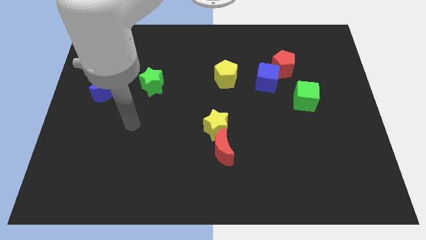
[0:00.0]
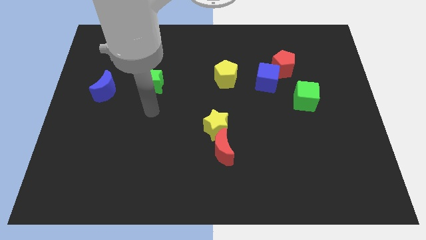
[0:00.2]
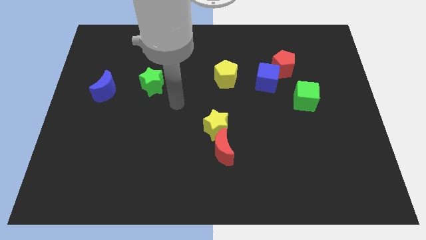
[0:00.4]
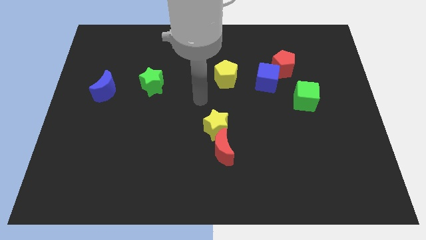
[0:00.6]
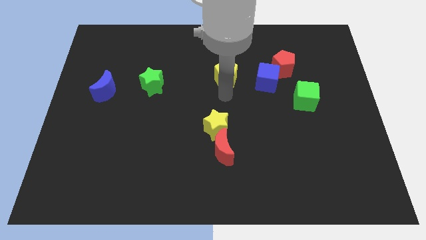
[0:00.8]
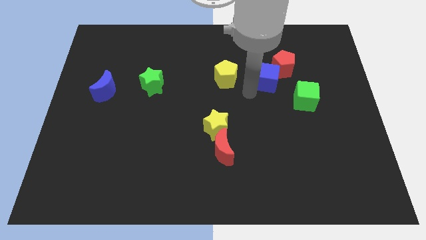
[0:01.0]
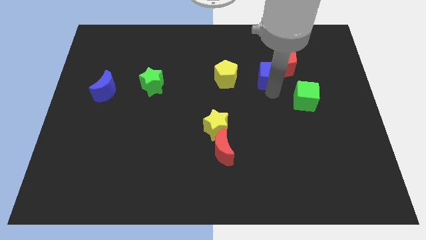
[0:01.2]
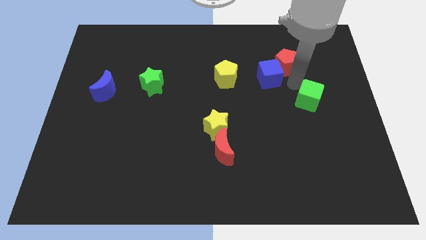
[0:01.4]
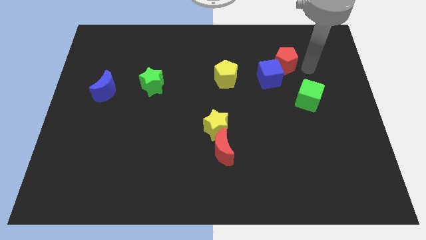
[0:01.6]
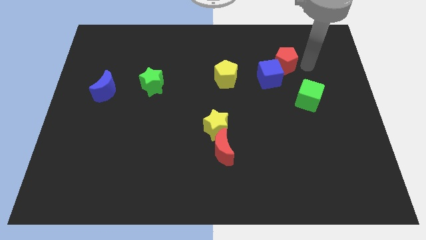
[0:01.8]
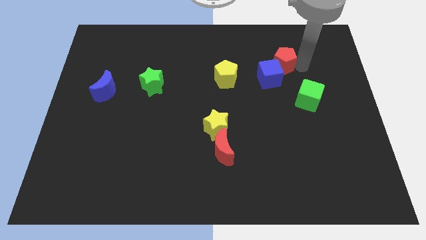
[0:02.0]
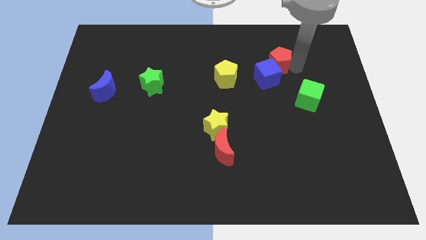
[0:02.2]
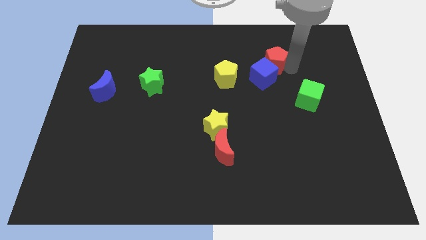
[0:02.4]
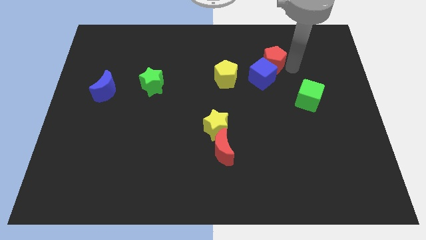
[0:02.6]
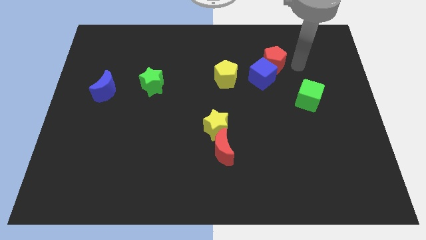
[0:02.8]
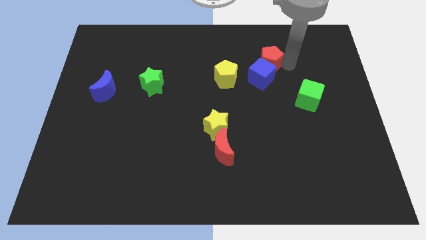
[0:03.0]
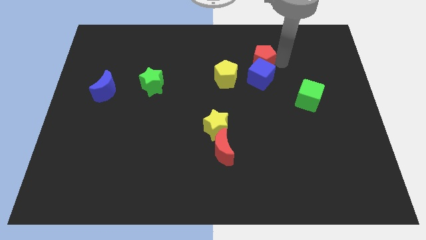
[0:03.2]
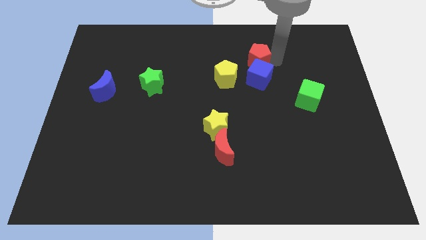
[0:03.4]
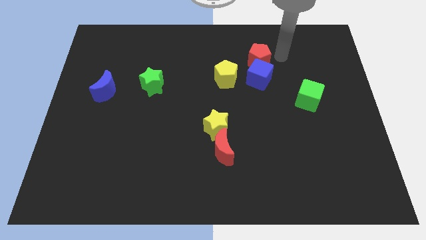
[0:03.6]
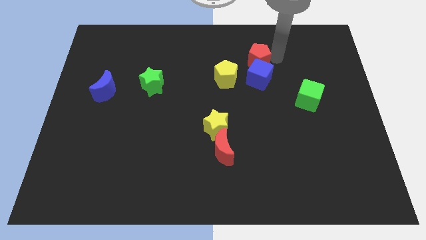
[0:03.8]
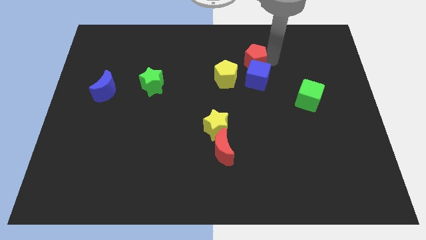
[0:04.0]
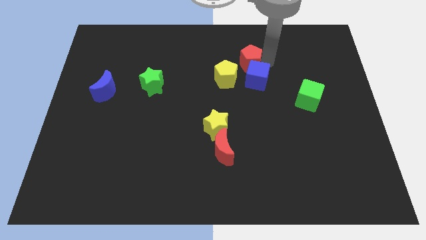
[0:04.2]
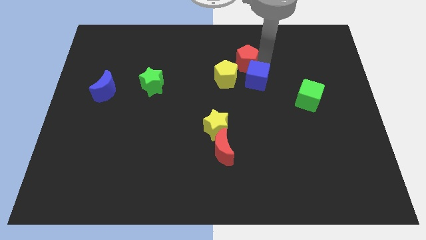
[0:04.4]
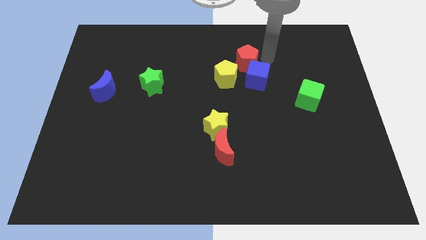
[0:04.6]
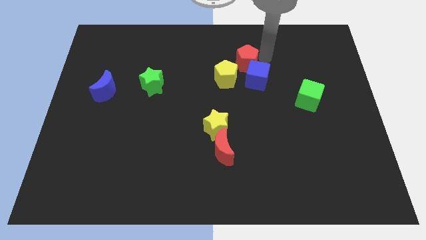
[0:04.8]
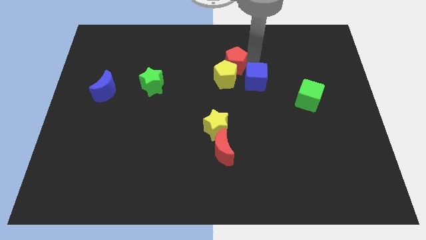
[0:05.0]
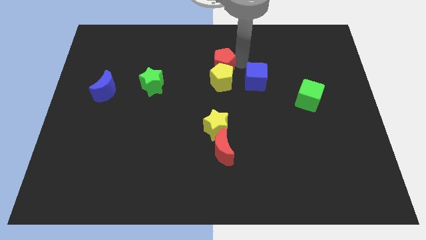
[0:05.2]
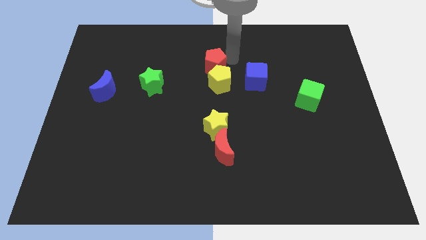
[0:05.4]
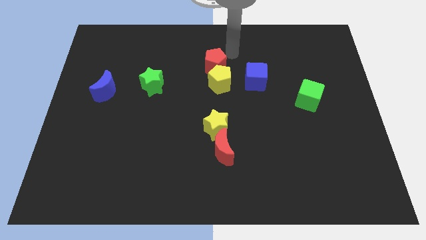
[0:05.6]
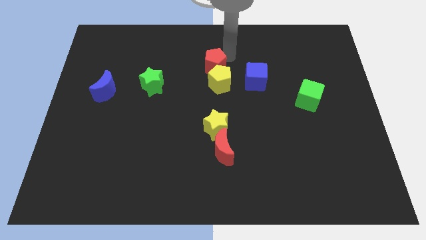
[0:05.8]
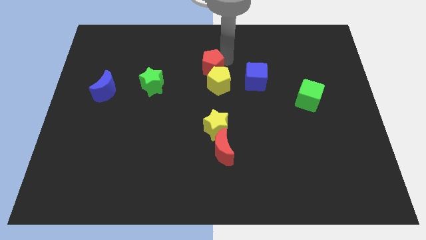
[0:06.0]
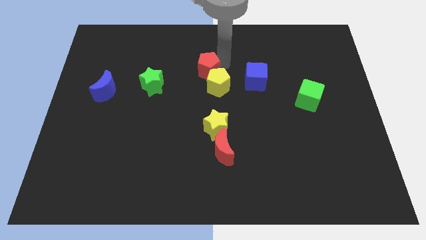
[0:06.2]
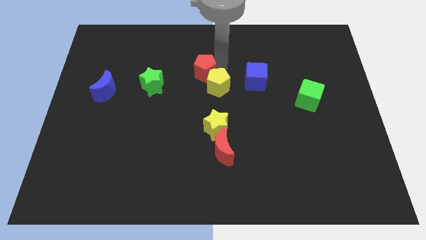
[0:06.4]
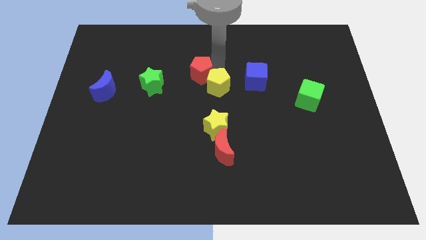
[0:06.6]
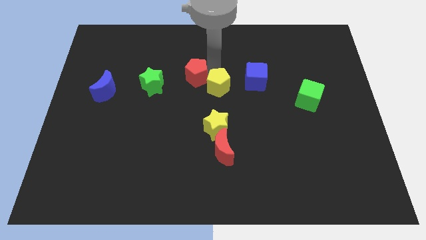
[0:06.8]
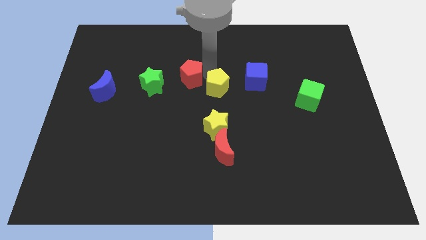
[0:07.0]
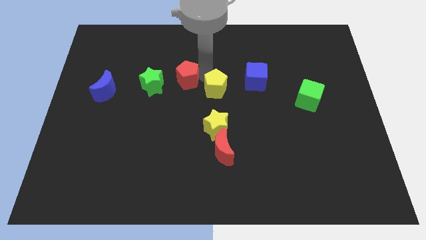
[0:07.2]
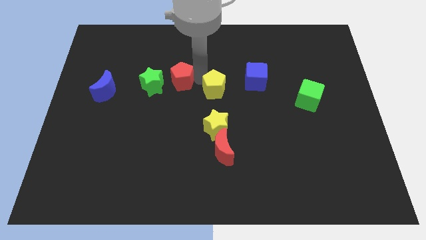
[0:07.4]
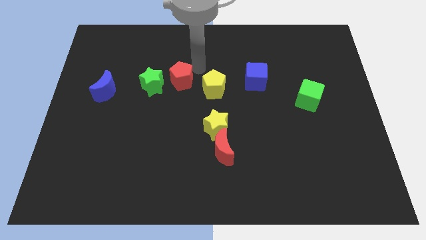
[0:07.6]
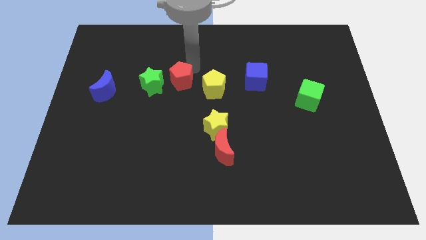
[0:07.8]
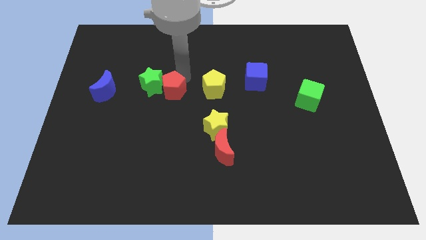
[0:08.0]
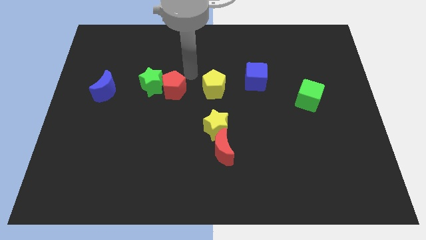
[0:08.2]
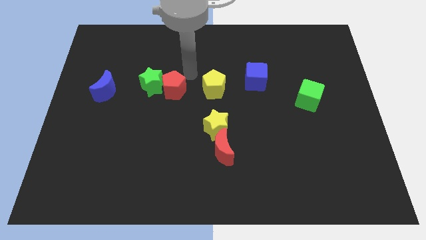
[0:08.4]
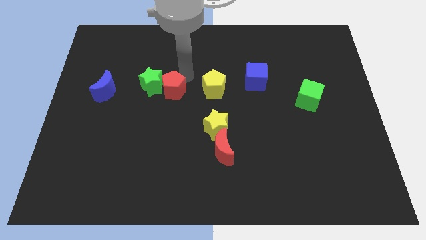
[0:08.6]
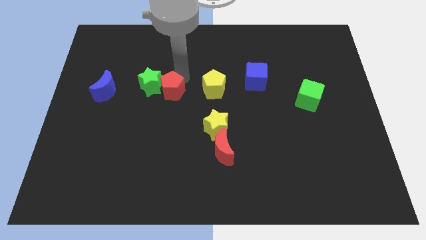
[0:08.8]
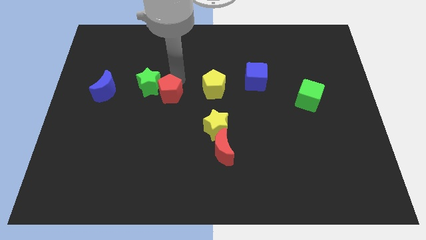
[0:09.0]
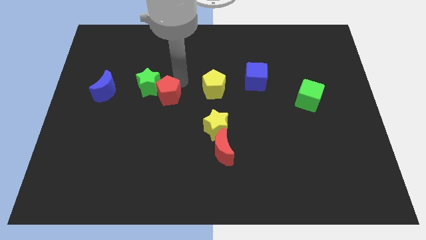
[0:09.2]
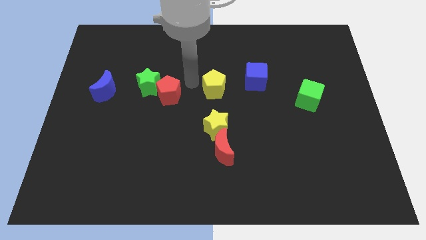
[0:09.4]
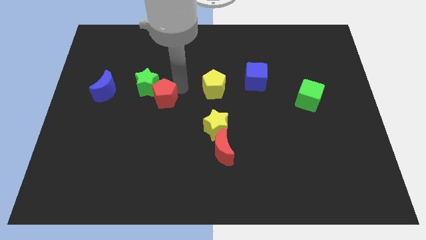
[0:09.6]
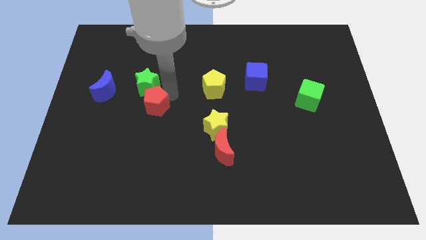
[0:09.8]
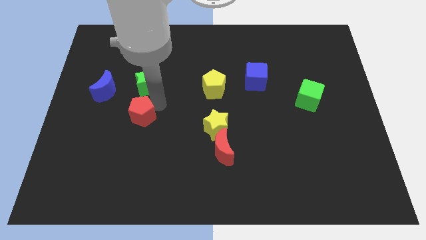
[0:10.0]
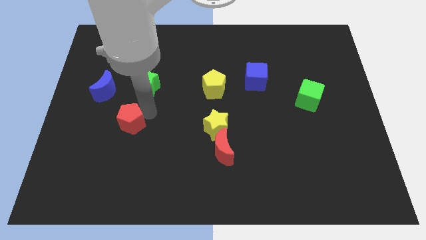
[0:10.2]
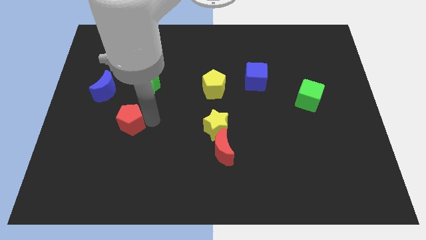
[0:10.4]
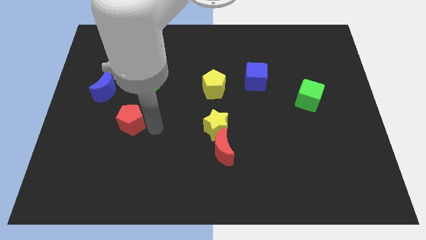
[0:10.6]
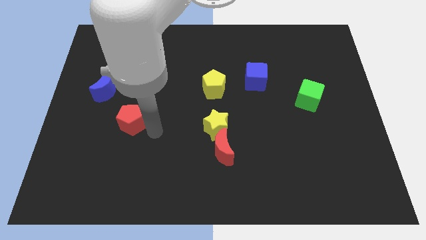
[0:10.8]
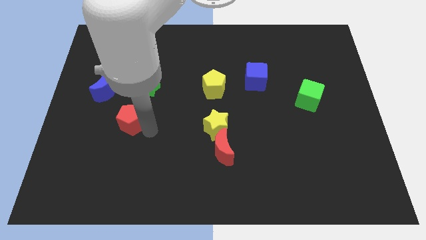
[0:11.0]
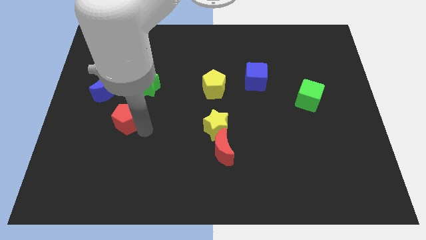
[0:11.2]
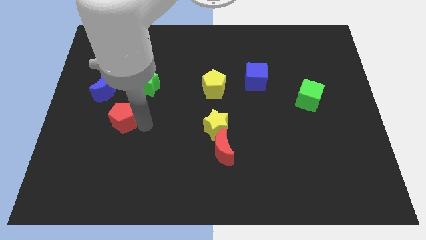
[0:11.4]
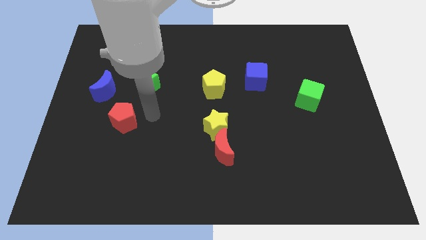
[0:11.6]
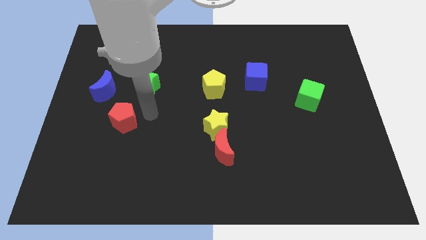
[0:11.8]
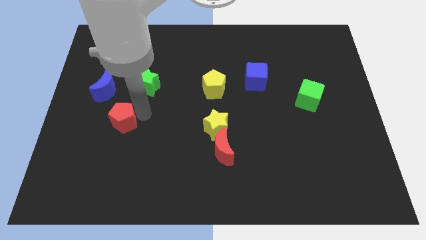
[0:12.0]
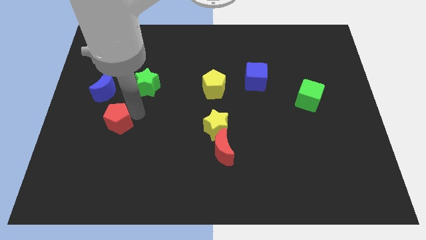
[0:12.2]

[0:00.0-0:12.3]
push the red pentagon to the bottom side of the blue moon

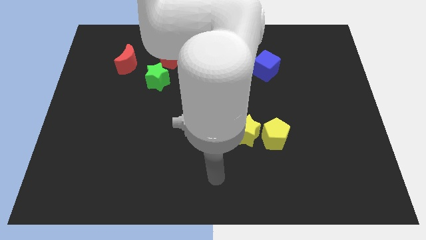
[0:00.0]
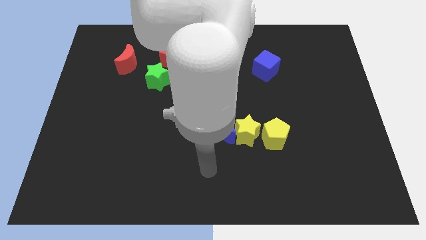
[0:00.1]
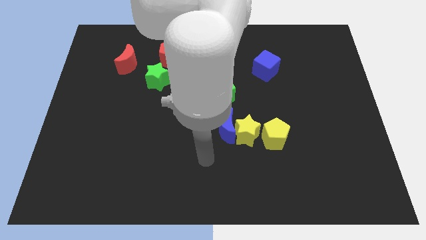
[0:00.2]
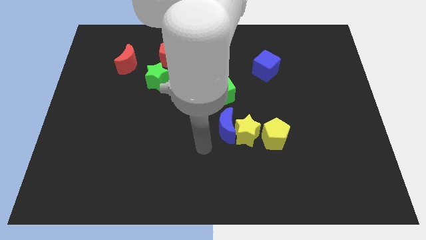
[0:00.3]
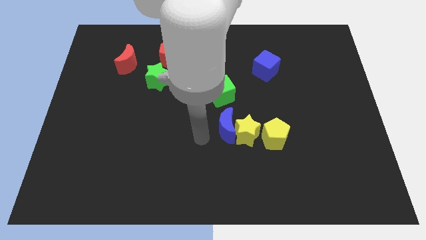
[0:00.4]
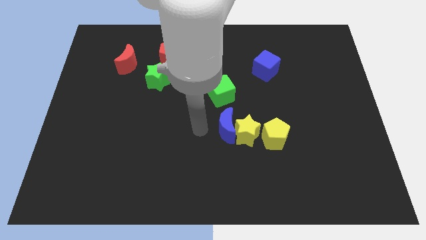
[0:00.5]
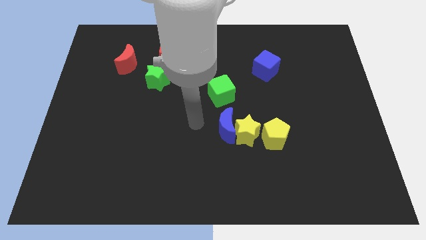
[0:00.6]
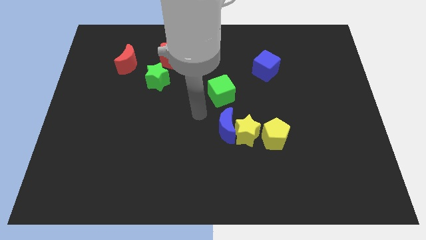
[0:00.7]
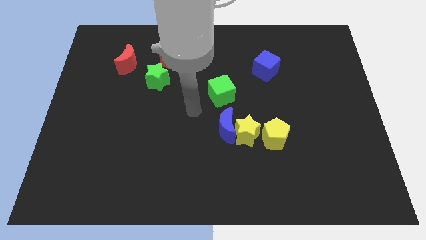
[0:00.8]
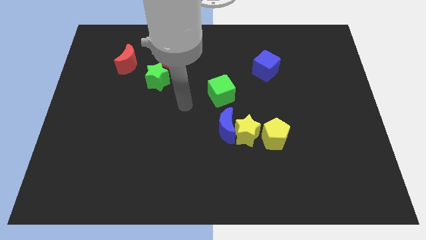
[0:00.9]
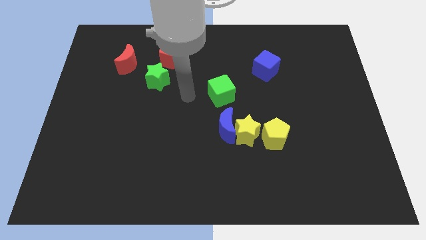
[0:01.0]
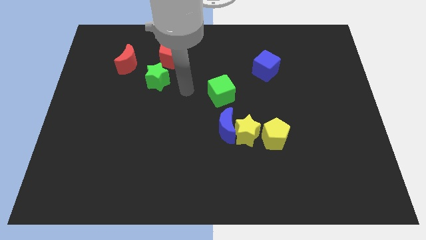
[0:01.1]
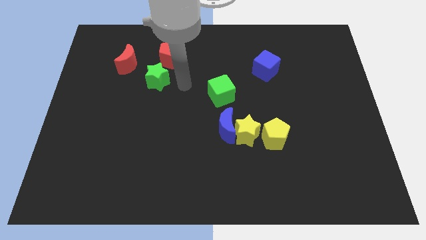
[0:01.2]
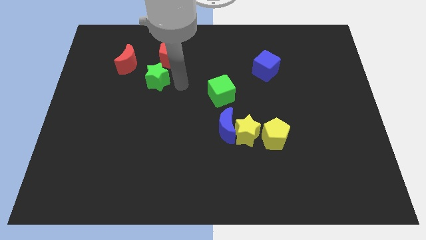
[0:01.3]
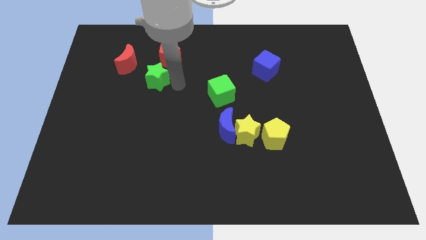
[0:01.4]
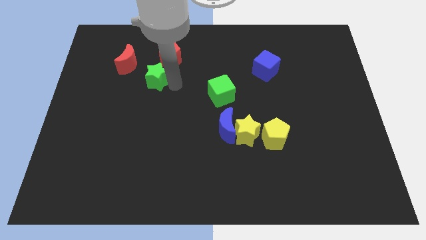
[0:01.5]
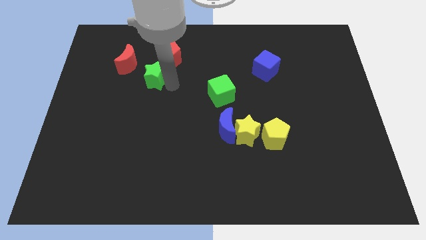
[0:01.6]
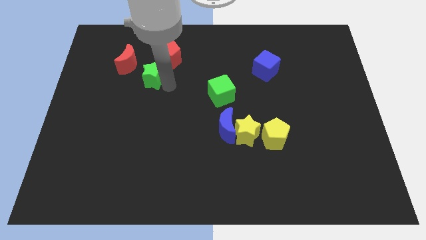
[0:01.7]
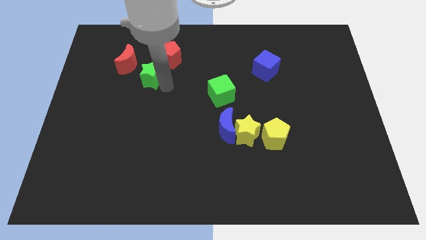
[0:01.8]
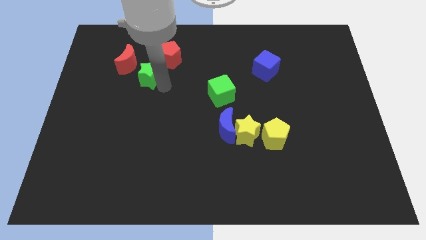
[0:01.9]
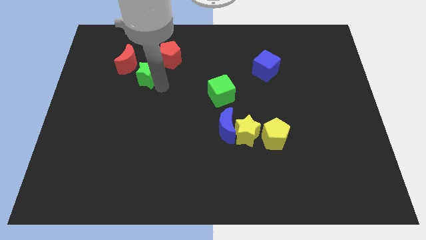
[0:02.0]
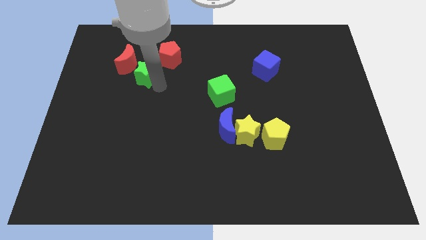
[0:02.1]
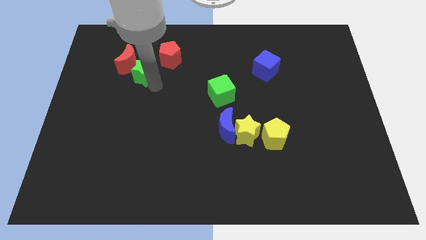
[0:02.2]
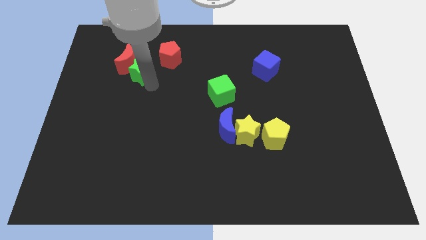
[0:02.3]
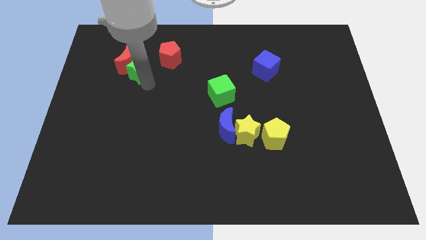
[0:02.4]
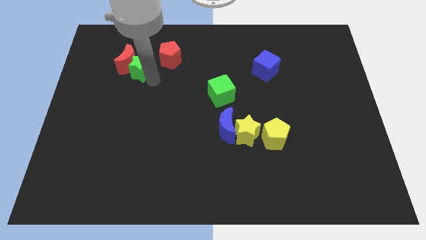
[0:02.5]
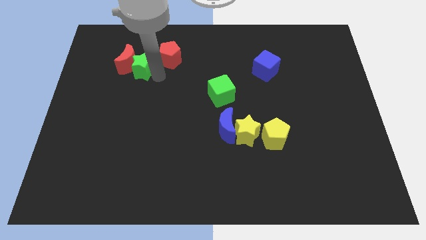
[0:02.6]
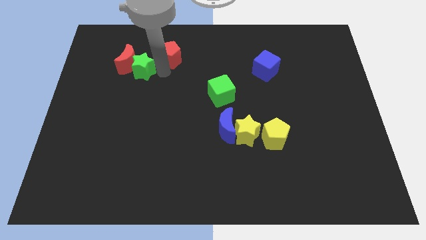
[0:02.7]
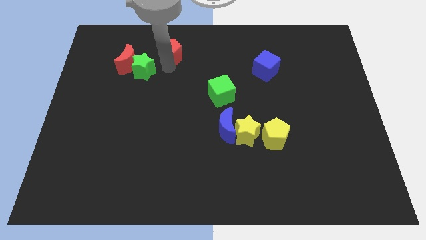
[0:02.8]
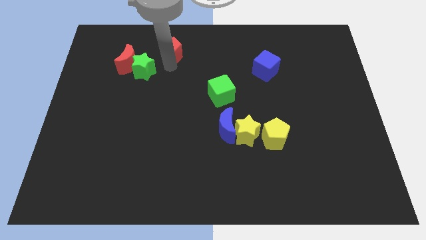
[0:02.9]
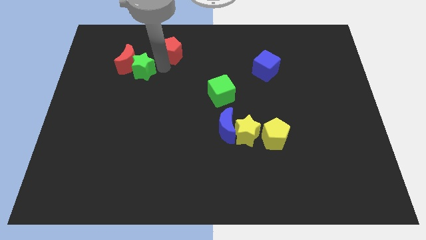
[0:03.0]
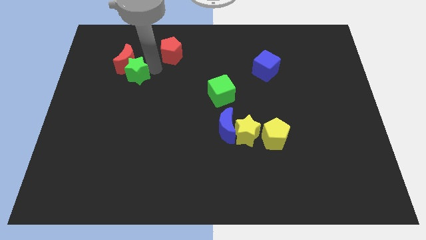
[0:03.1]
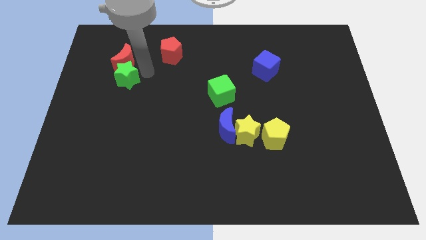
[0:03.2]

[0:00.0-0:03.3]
push the green star to the bottom left of the red moon
